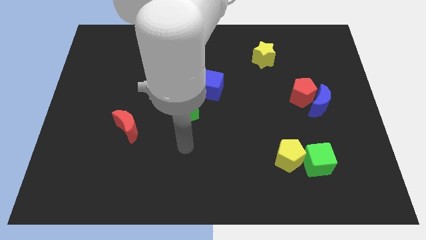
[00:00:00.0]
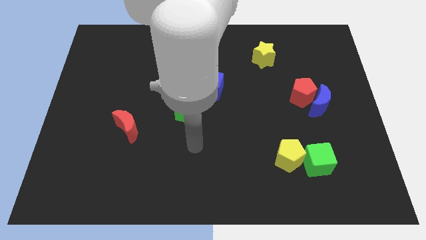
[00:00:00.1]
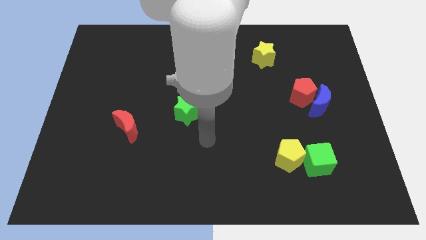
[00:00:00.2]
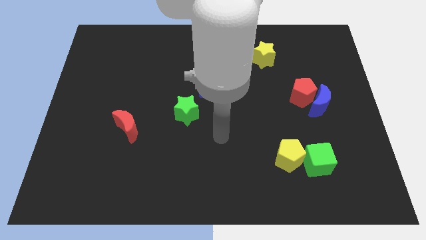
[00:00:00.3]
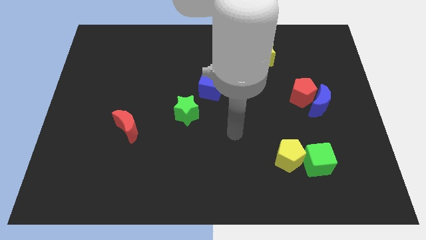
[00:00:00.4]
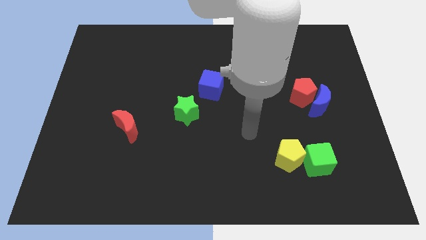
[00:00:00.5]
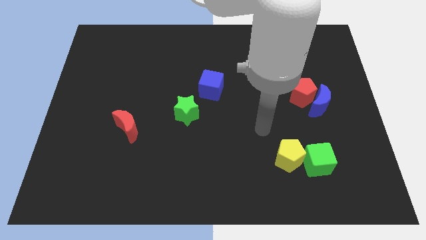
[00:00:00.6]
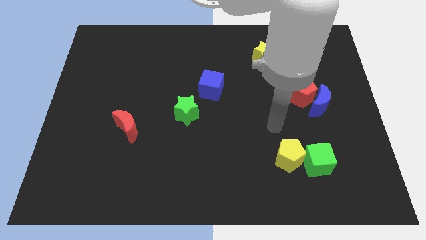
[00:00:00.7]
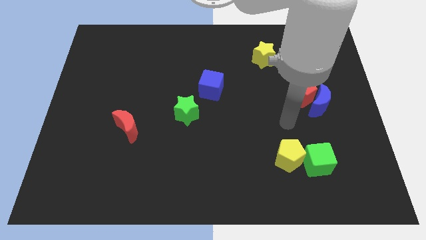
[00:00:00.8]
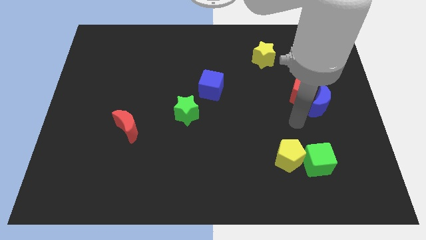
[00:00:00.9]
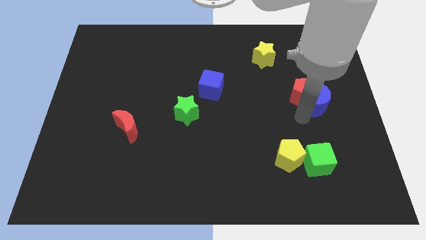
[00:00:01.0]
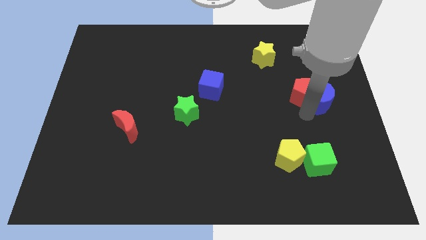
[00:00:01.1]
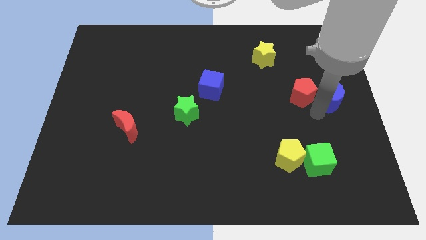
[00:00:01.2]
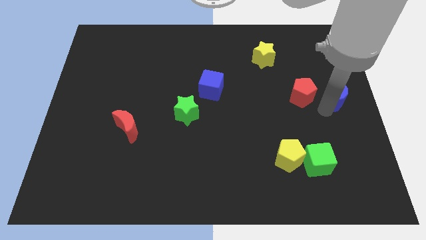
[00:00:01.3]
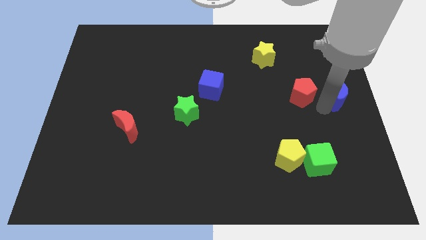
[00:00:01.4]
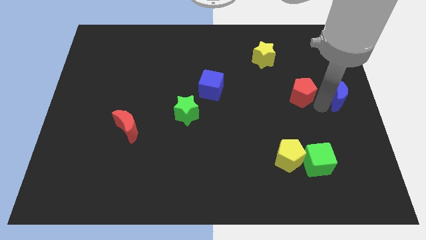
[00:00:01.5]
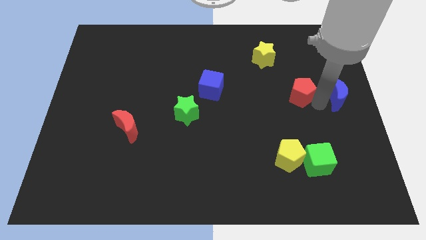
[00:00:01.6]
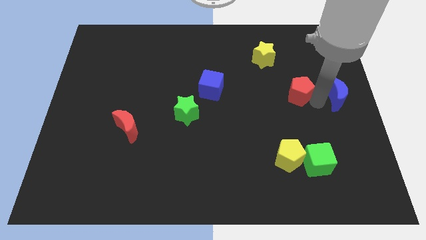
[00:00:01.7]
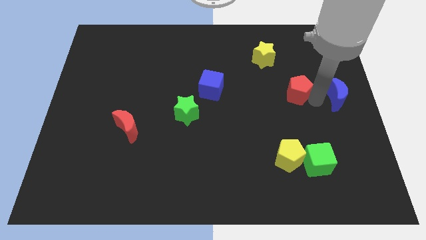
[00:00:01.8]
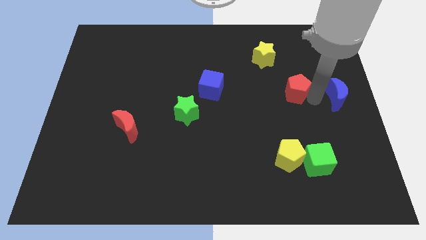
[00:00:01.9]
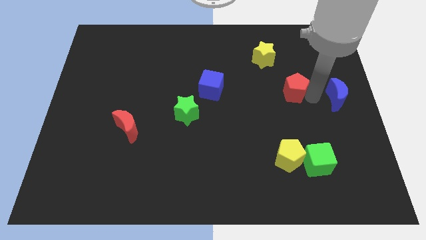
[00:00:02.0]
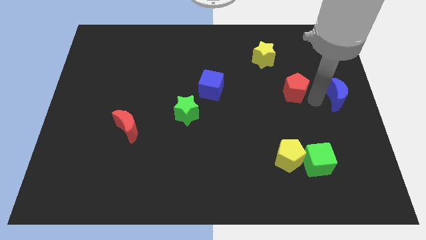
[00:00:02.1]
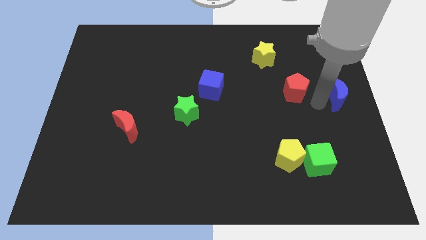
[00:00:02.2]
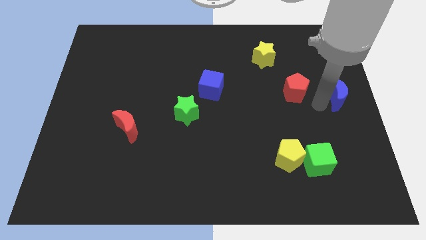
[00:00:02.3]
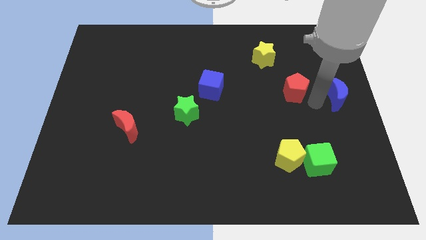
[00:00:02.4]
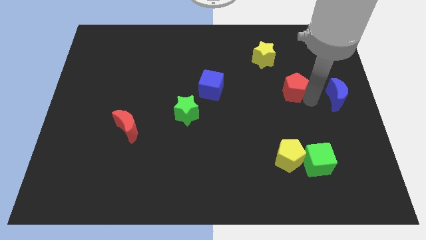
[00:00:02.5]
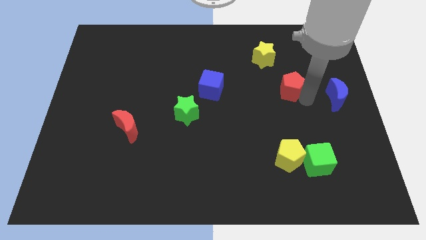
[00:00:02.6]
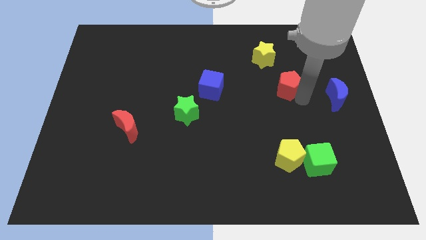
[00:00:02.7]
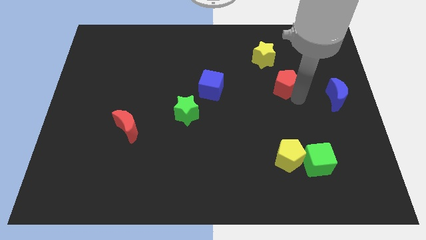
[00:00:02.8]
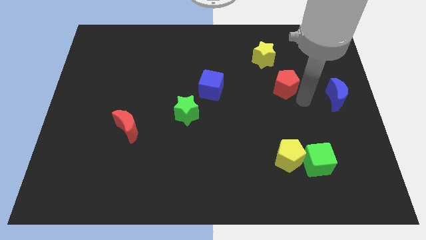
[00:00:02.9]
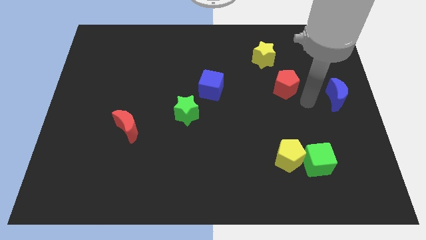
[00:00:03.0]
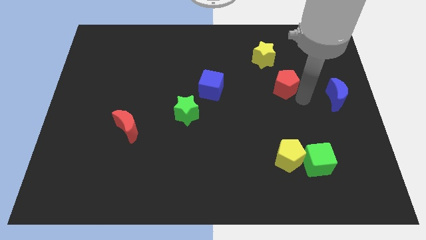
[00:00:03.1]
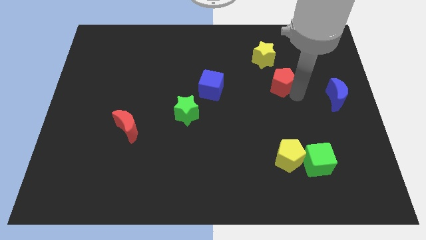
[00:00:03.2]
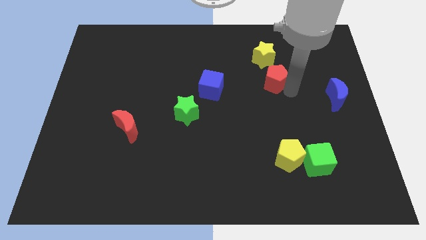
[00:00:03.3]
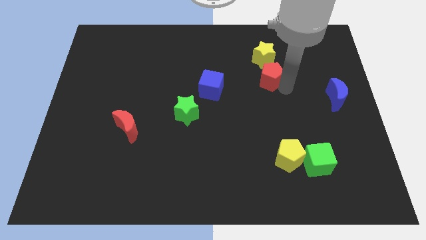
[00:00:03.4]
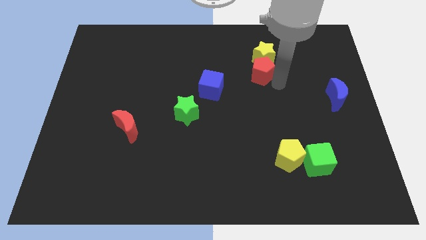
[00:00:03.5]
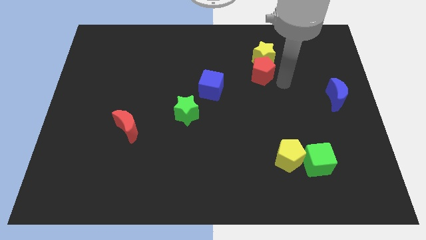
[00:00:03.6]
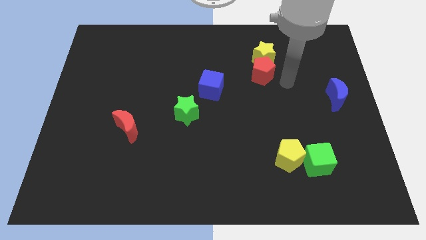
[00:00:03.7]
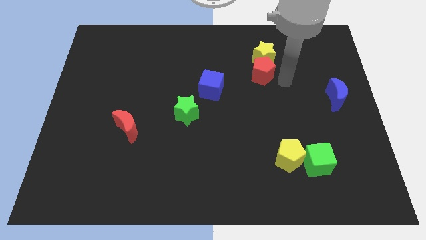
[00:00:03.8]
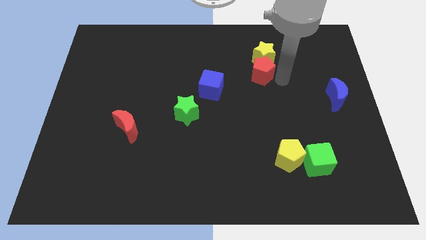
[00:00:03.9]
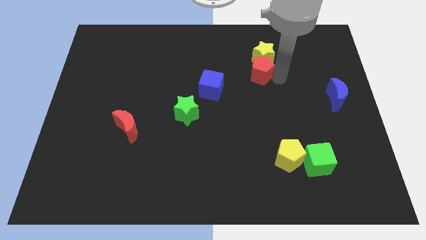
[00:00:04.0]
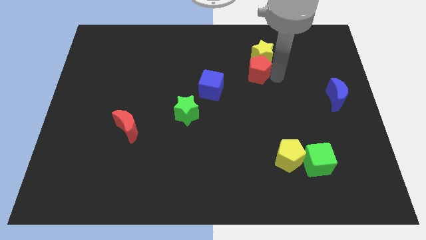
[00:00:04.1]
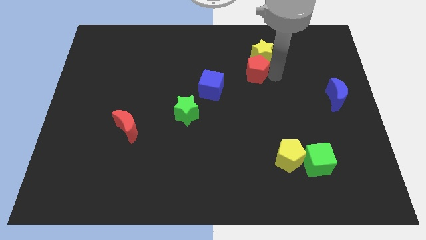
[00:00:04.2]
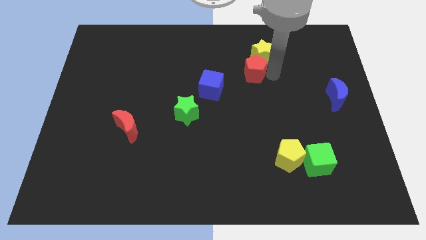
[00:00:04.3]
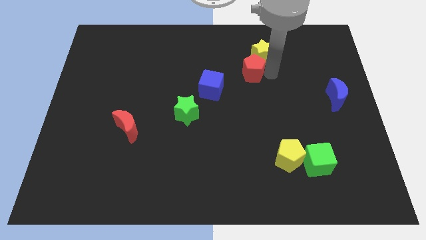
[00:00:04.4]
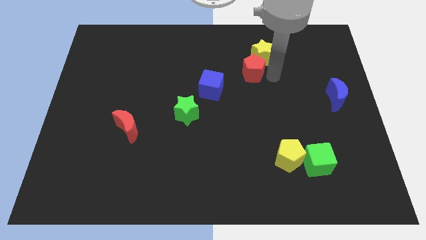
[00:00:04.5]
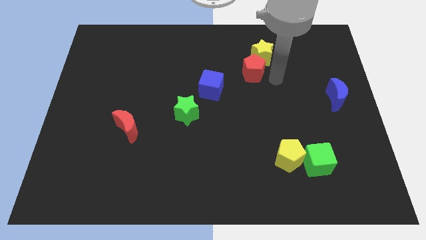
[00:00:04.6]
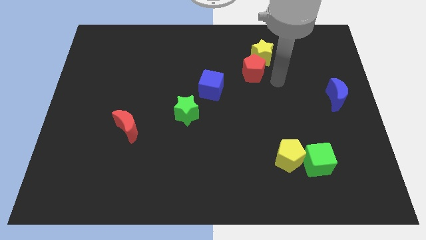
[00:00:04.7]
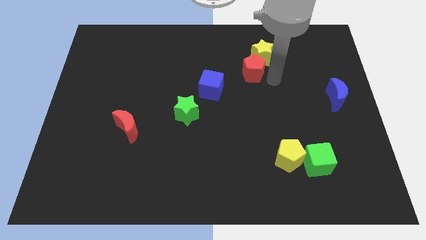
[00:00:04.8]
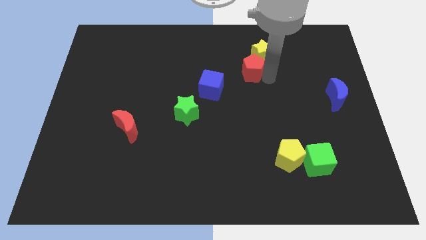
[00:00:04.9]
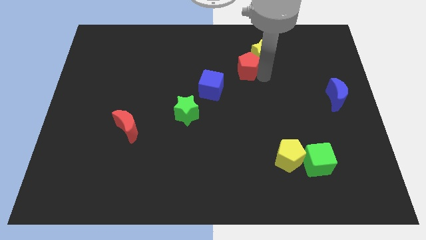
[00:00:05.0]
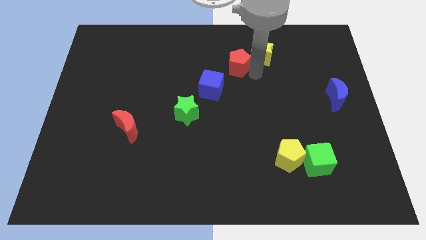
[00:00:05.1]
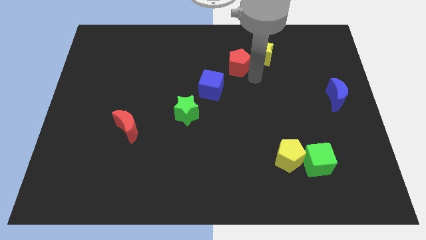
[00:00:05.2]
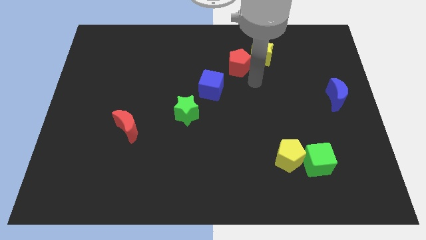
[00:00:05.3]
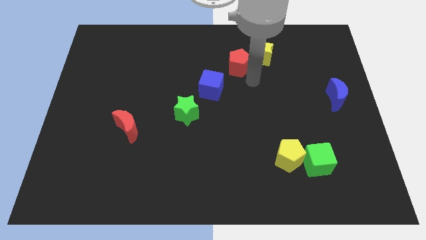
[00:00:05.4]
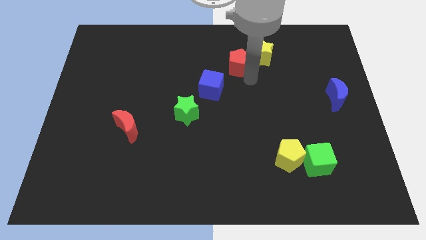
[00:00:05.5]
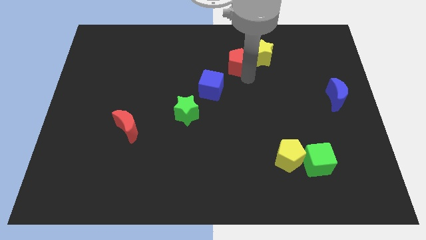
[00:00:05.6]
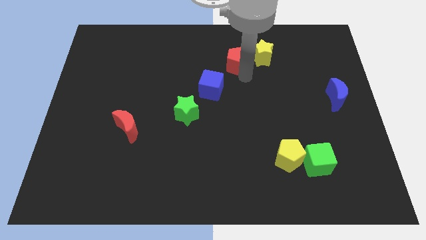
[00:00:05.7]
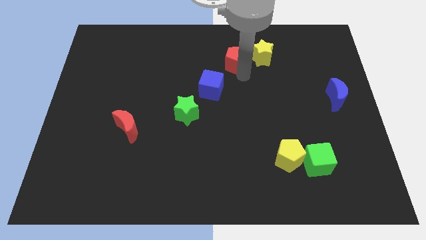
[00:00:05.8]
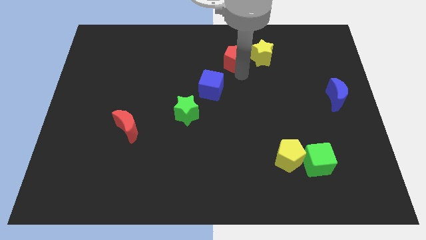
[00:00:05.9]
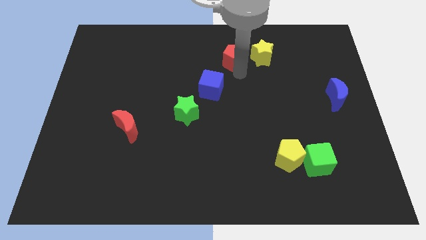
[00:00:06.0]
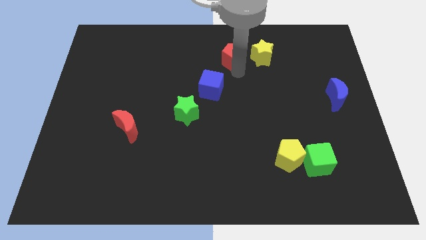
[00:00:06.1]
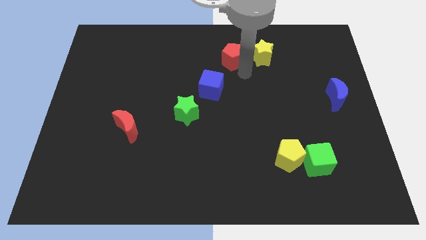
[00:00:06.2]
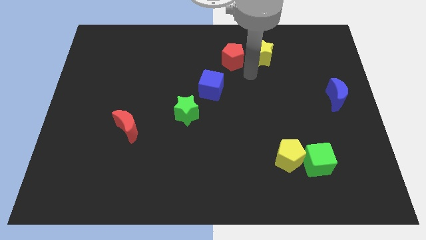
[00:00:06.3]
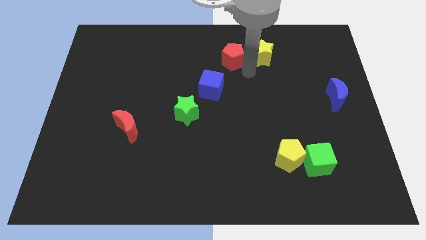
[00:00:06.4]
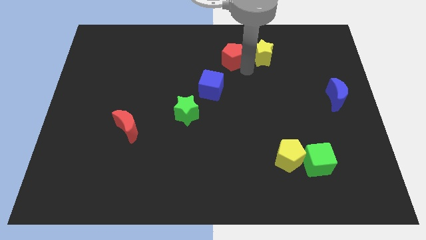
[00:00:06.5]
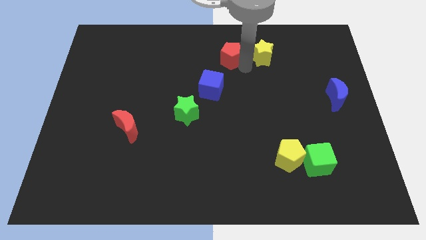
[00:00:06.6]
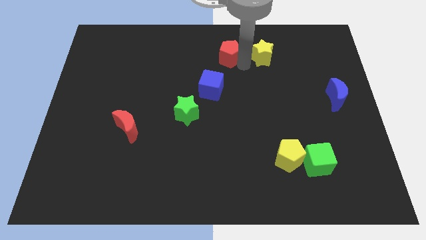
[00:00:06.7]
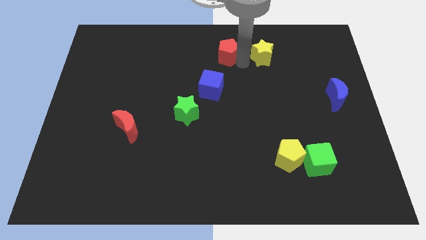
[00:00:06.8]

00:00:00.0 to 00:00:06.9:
move the red pentagon to the top side

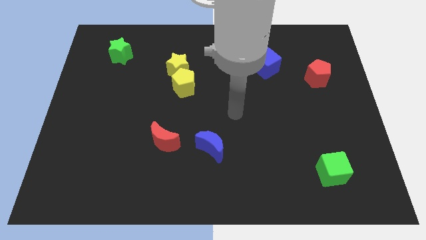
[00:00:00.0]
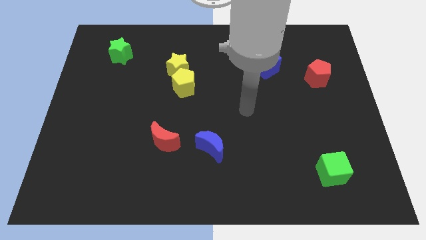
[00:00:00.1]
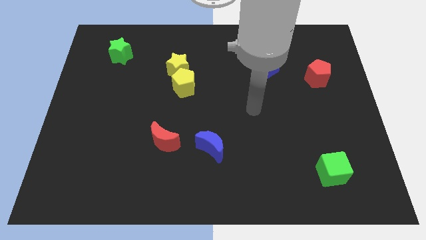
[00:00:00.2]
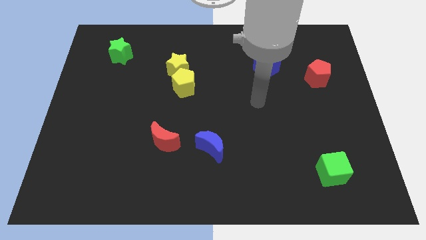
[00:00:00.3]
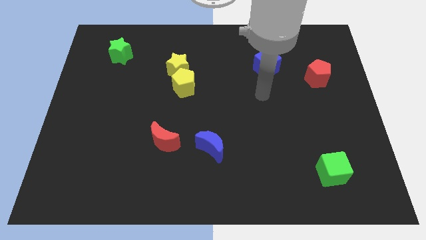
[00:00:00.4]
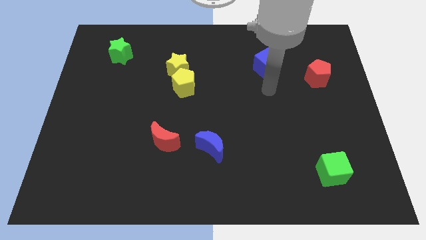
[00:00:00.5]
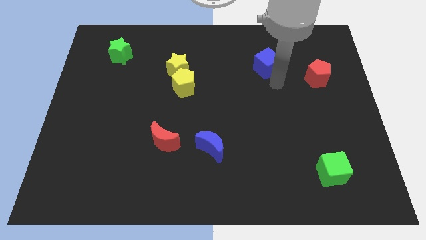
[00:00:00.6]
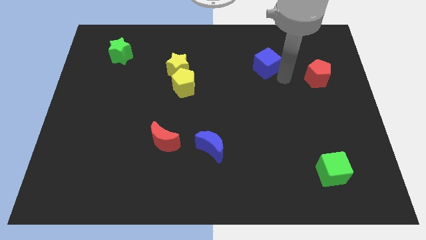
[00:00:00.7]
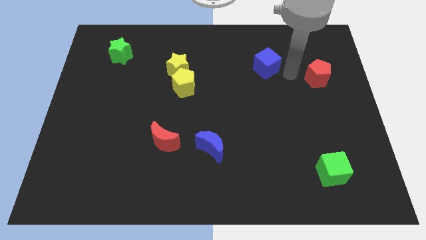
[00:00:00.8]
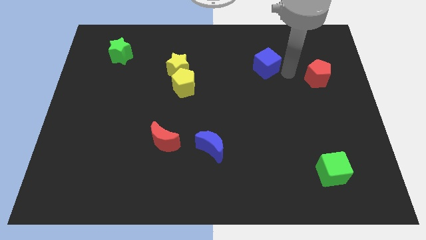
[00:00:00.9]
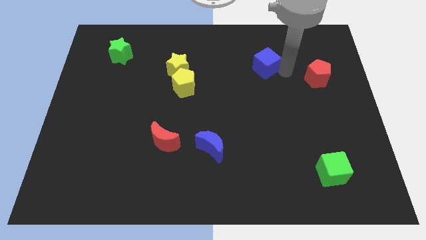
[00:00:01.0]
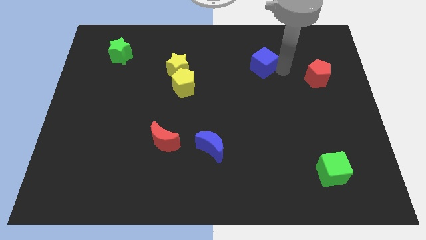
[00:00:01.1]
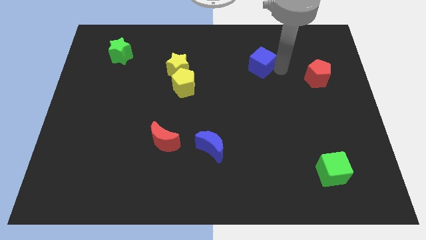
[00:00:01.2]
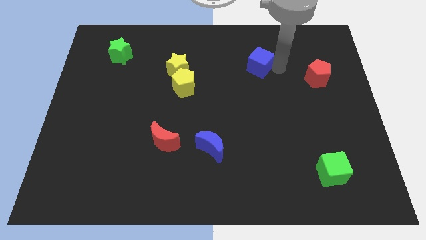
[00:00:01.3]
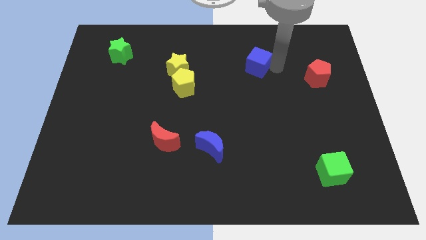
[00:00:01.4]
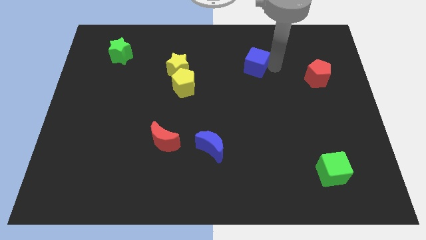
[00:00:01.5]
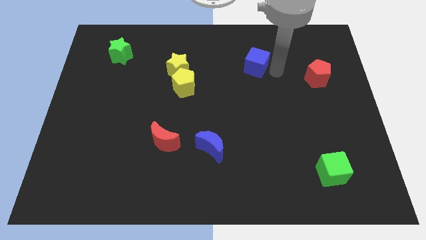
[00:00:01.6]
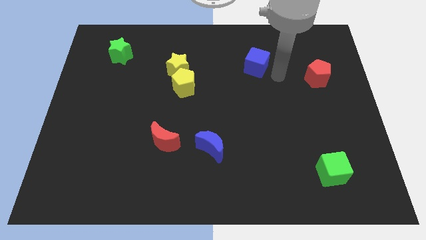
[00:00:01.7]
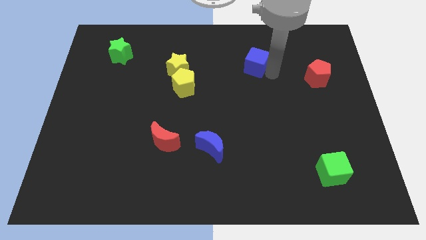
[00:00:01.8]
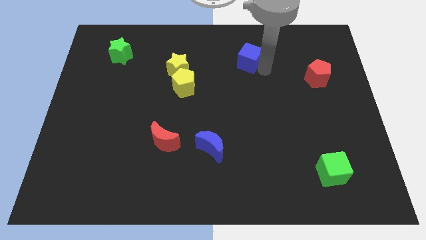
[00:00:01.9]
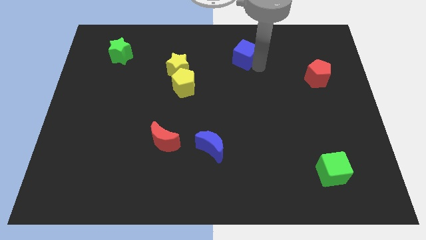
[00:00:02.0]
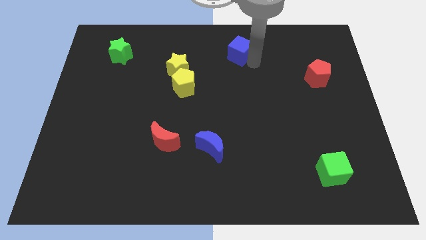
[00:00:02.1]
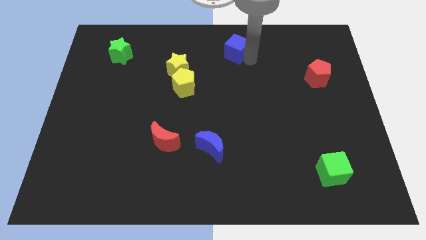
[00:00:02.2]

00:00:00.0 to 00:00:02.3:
move the blue cube to the top
